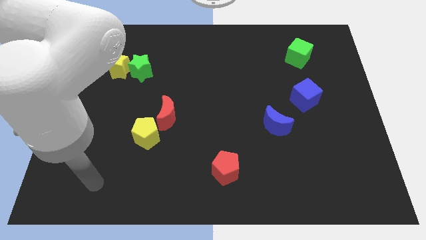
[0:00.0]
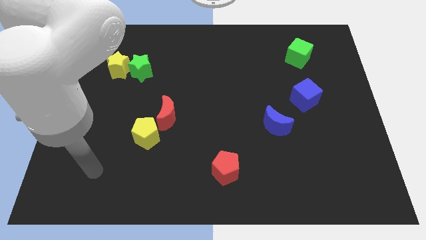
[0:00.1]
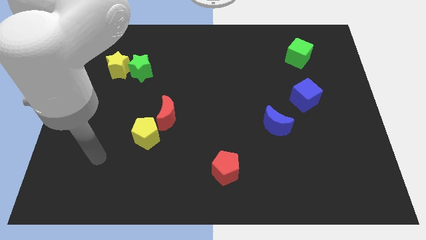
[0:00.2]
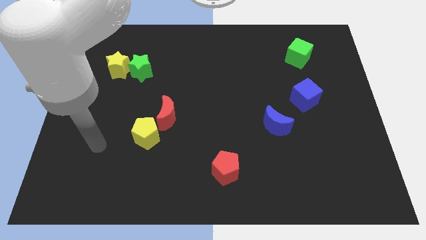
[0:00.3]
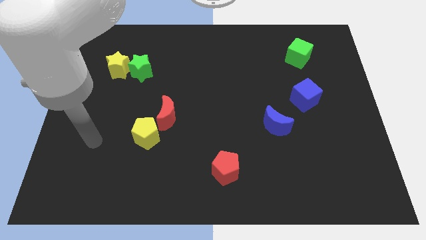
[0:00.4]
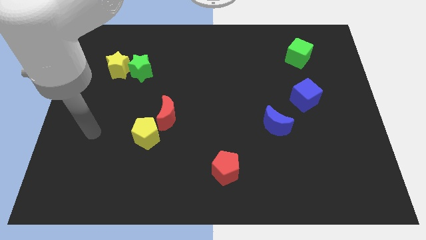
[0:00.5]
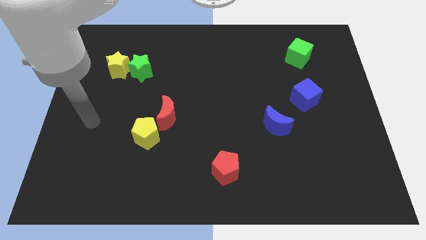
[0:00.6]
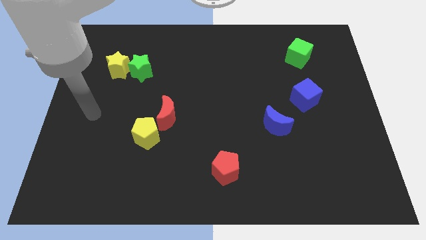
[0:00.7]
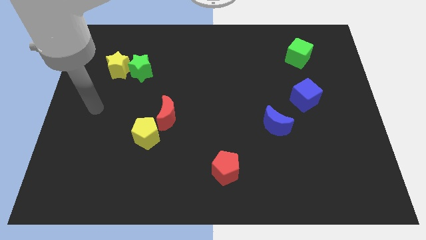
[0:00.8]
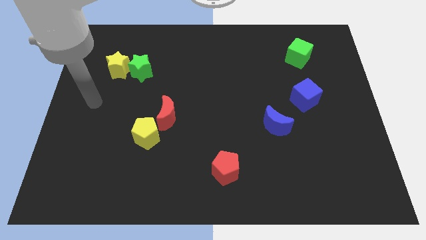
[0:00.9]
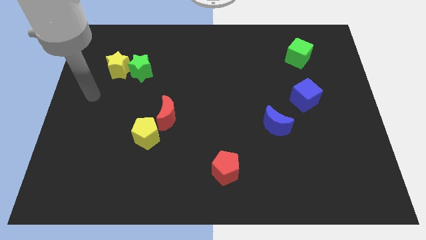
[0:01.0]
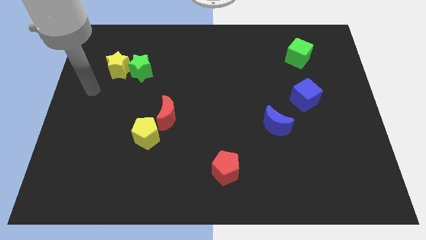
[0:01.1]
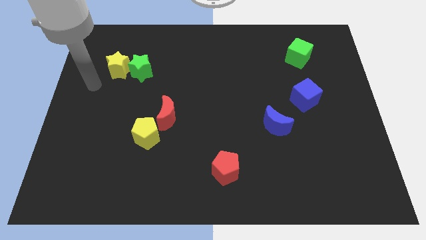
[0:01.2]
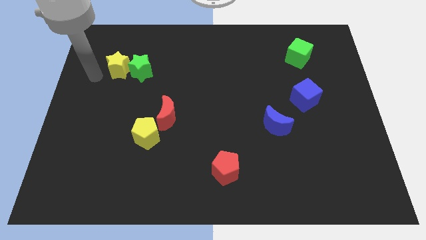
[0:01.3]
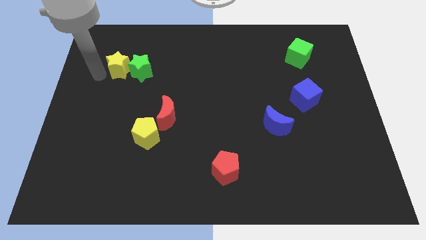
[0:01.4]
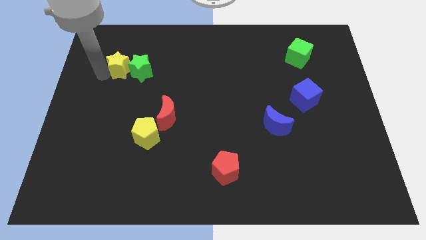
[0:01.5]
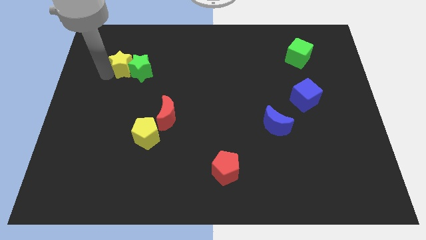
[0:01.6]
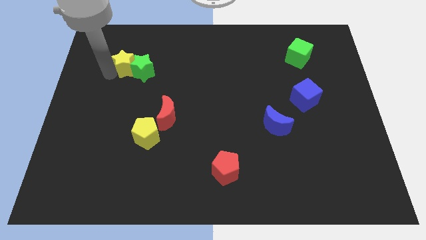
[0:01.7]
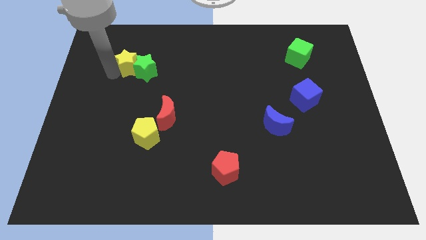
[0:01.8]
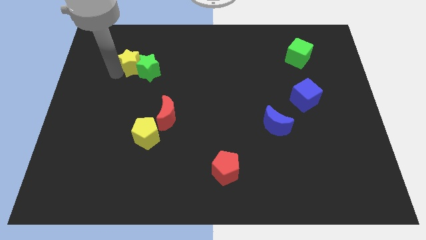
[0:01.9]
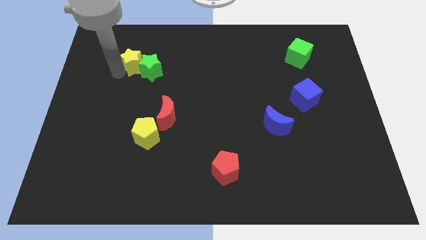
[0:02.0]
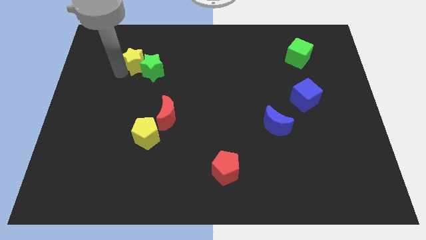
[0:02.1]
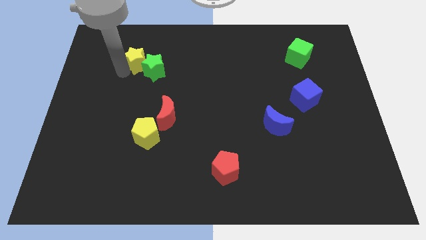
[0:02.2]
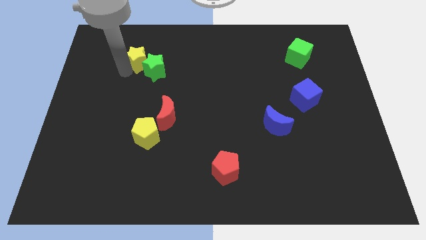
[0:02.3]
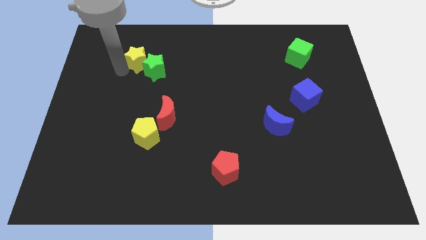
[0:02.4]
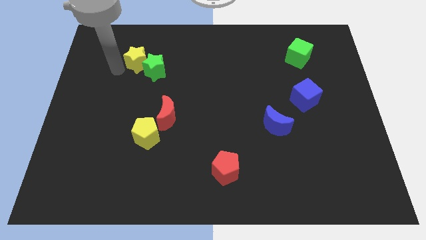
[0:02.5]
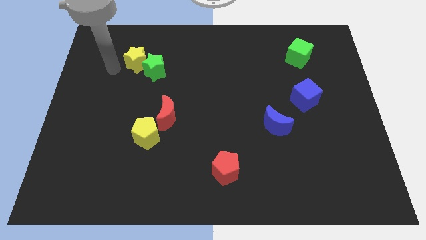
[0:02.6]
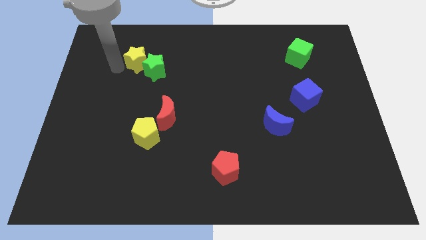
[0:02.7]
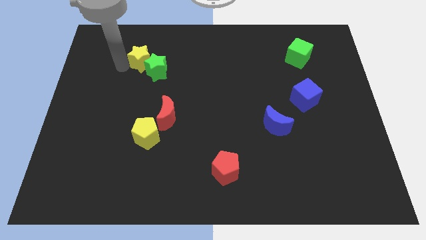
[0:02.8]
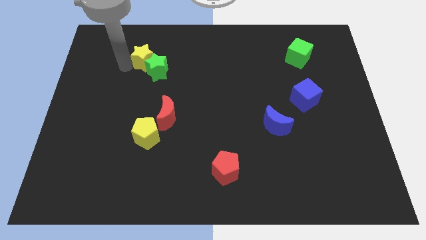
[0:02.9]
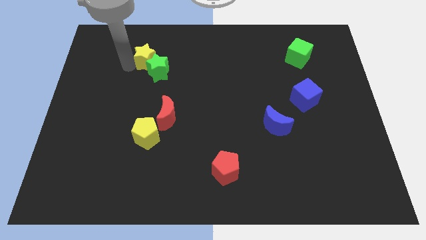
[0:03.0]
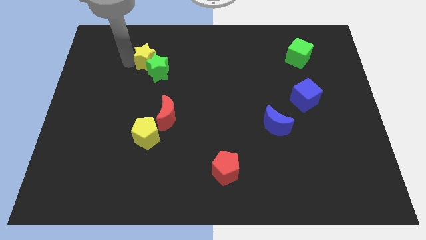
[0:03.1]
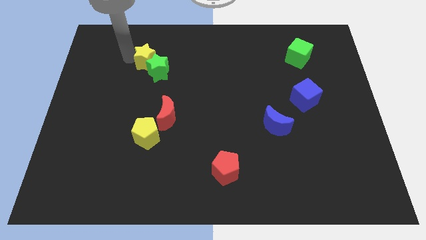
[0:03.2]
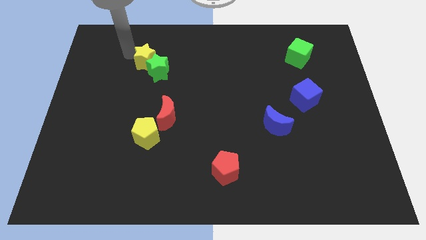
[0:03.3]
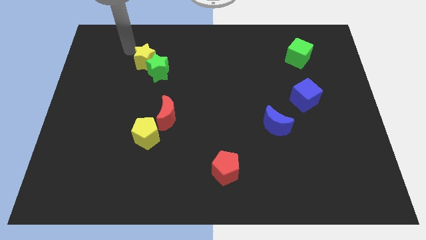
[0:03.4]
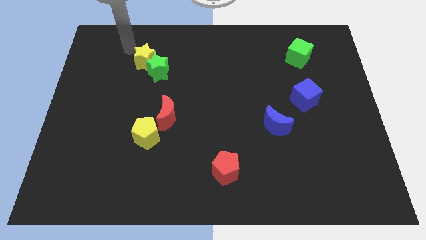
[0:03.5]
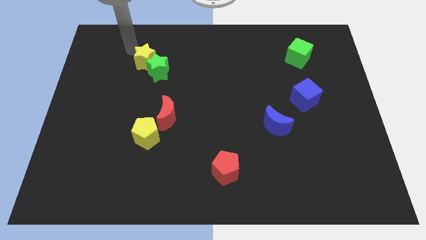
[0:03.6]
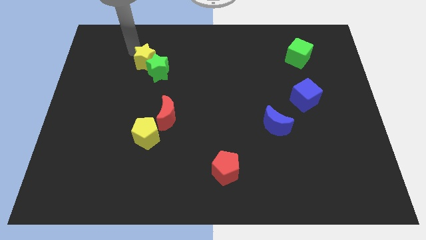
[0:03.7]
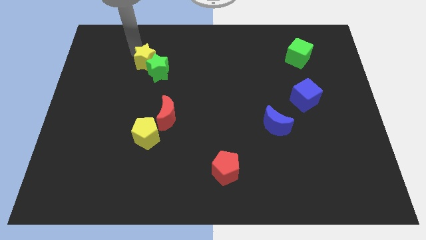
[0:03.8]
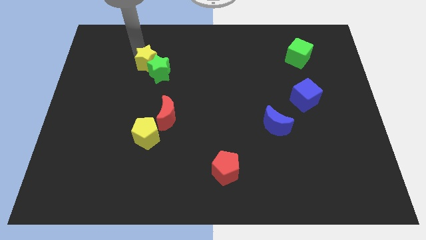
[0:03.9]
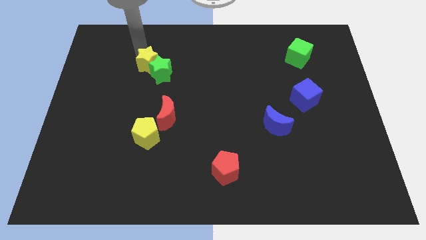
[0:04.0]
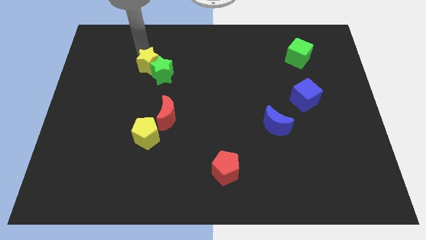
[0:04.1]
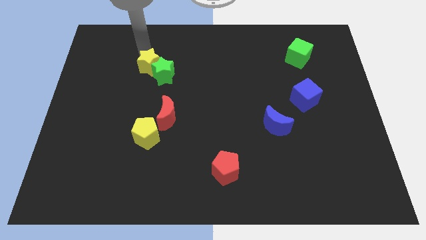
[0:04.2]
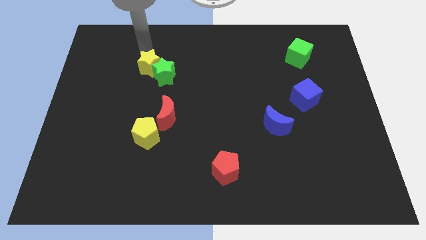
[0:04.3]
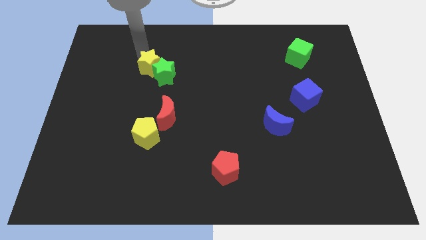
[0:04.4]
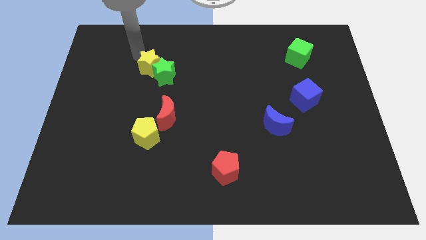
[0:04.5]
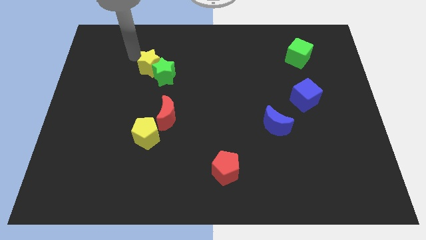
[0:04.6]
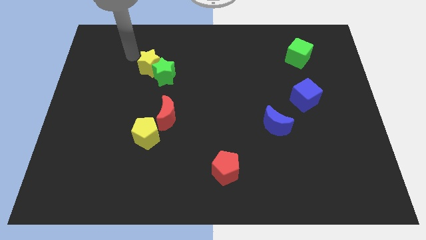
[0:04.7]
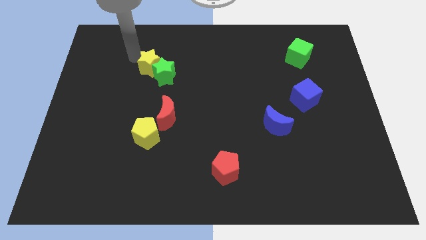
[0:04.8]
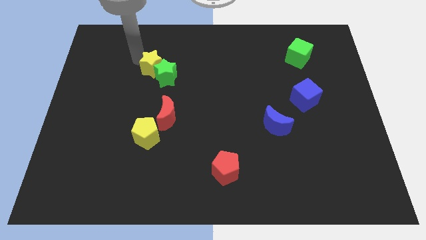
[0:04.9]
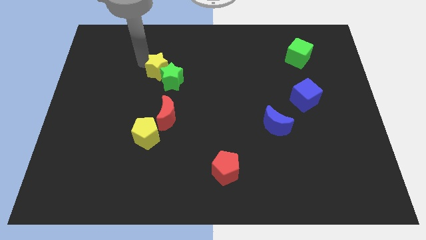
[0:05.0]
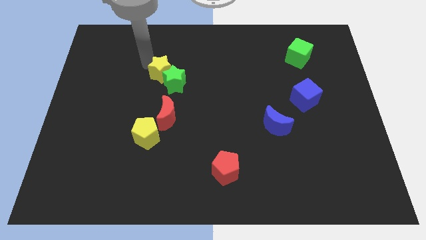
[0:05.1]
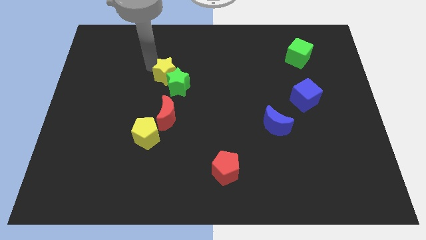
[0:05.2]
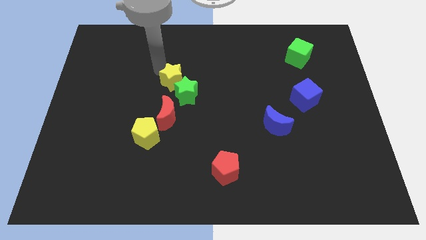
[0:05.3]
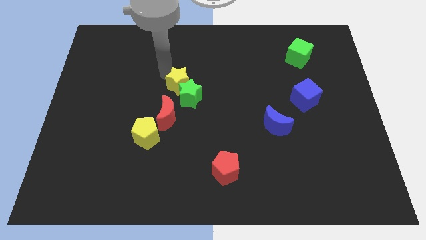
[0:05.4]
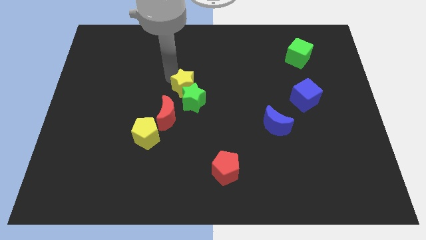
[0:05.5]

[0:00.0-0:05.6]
move the yellow star to the top right side of the red moon

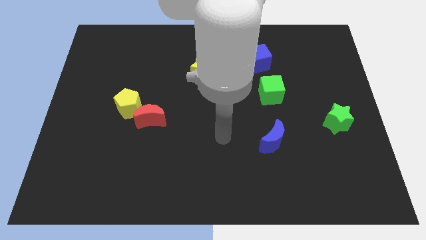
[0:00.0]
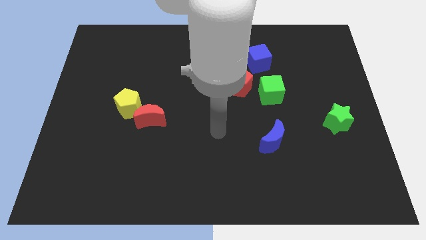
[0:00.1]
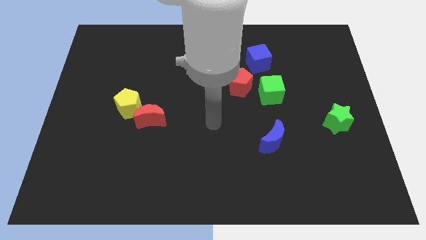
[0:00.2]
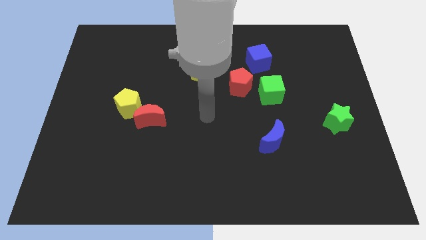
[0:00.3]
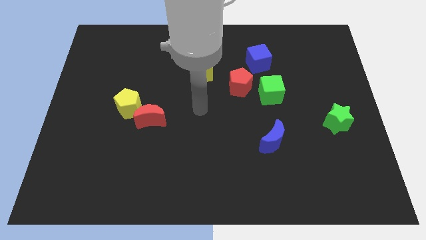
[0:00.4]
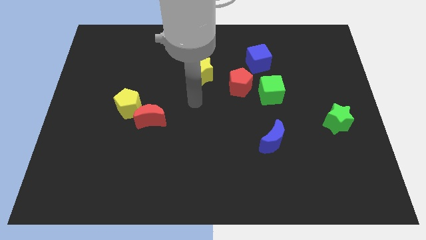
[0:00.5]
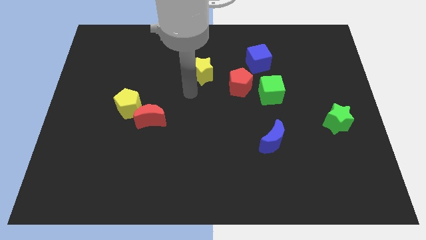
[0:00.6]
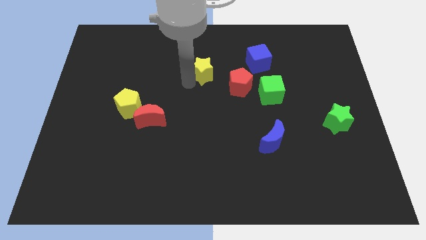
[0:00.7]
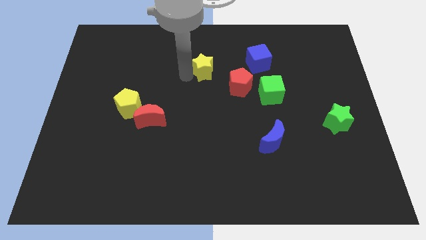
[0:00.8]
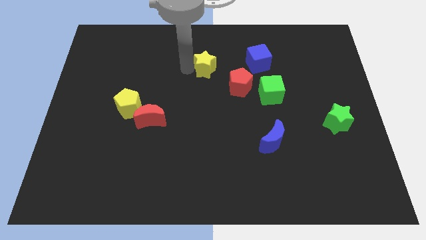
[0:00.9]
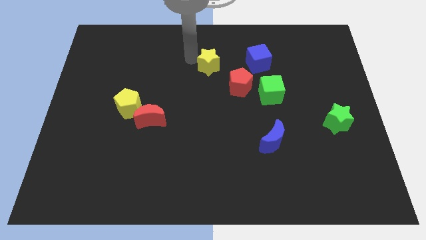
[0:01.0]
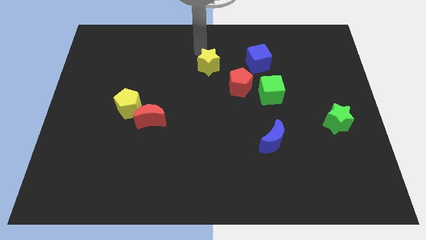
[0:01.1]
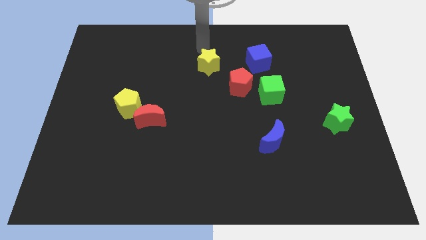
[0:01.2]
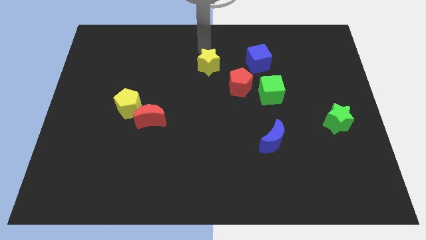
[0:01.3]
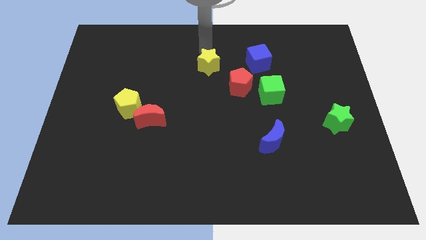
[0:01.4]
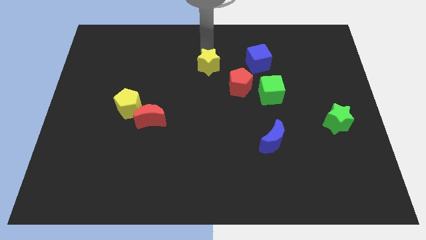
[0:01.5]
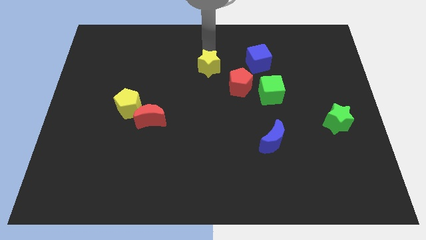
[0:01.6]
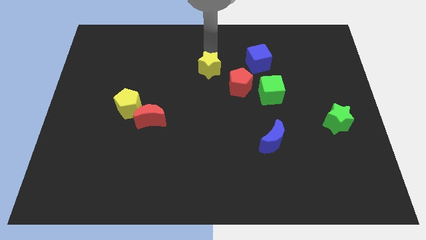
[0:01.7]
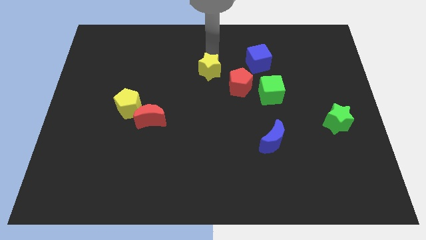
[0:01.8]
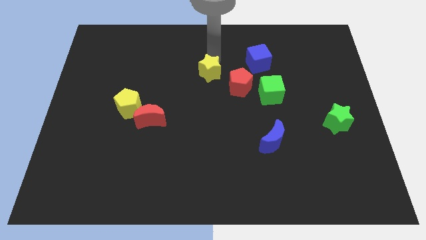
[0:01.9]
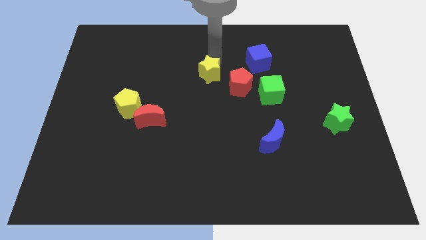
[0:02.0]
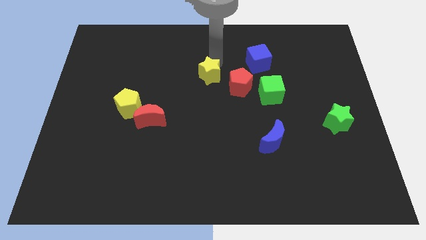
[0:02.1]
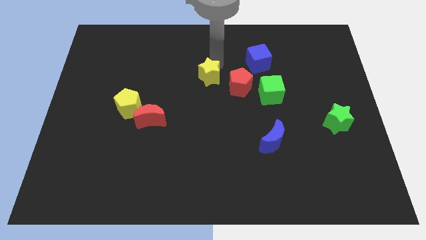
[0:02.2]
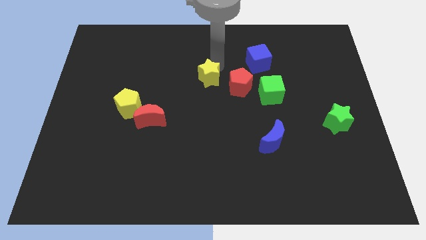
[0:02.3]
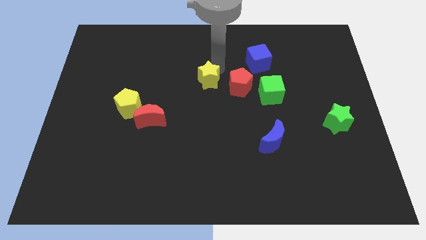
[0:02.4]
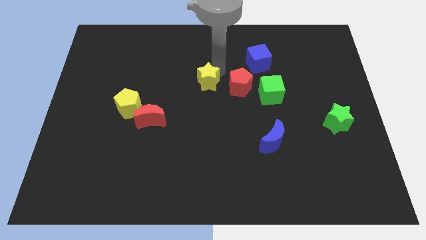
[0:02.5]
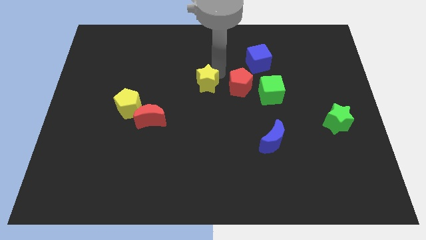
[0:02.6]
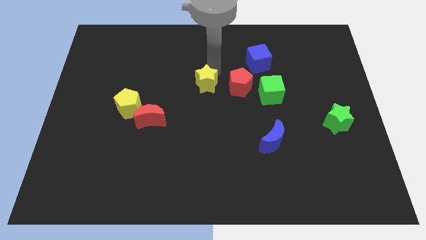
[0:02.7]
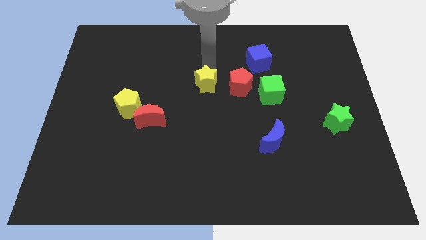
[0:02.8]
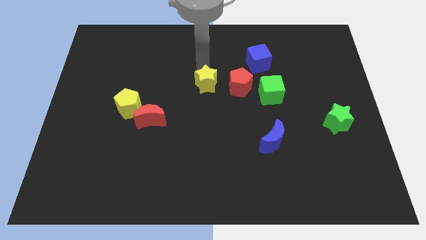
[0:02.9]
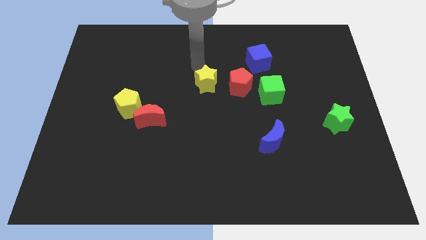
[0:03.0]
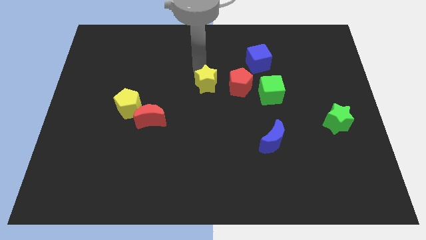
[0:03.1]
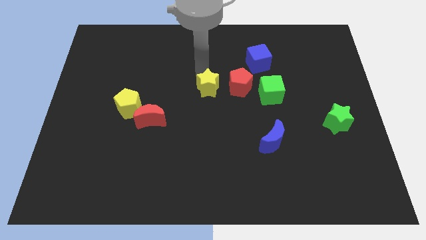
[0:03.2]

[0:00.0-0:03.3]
slide the yellow star to the bottom left of the red pentagon
